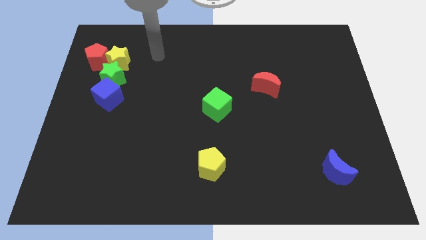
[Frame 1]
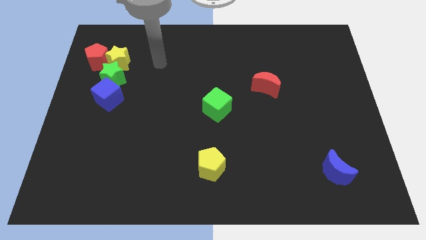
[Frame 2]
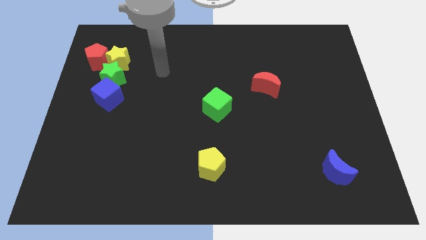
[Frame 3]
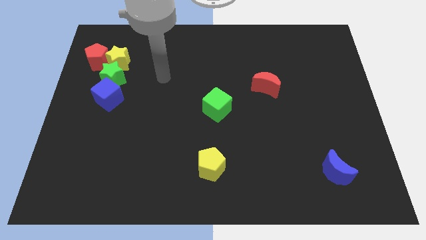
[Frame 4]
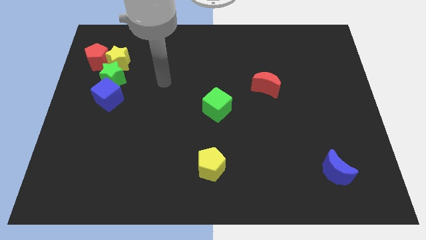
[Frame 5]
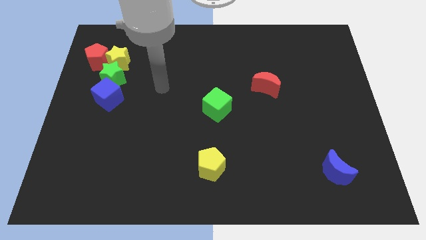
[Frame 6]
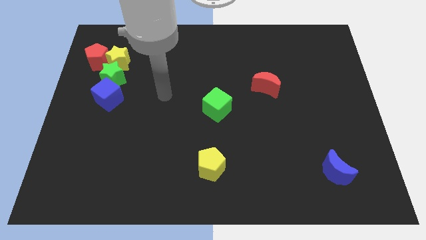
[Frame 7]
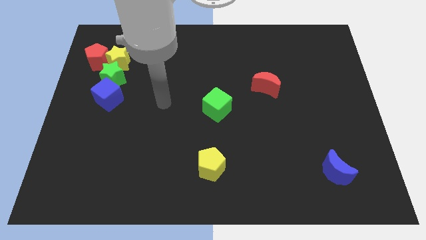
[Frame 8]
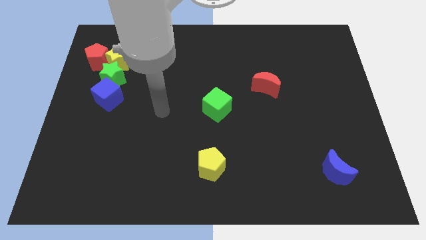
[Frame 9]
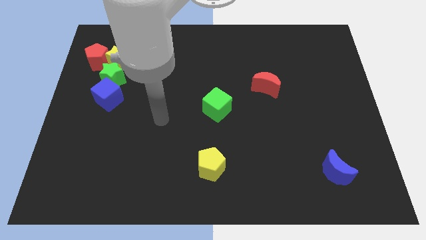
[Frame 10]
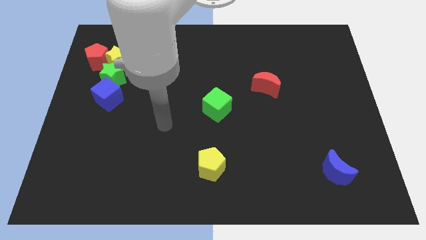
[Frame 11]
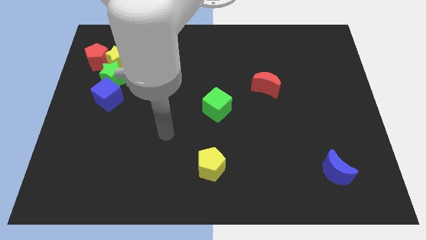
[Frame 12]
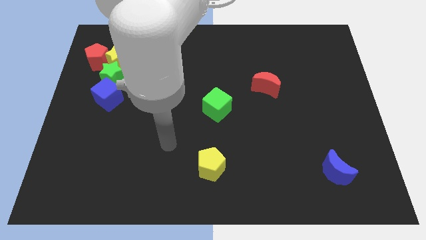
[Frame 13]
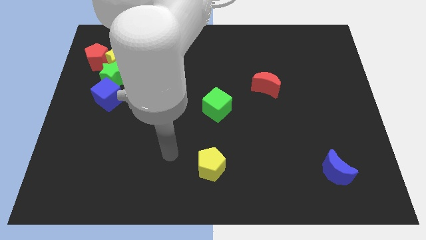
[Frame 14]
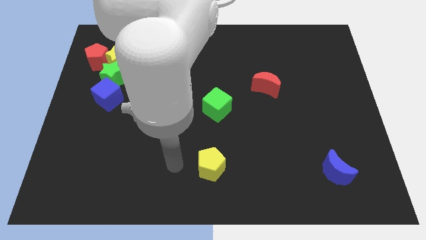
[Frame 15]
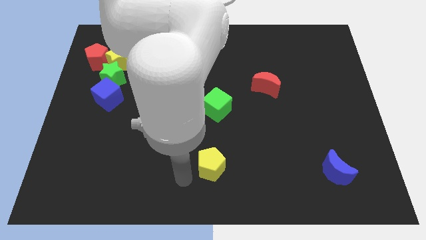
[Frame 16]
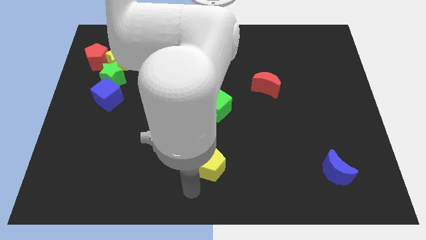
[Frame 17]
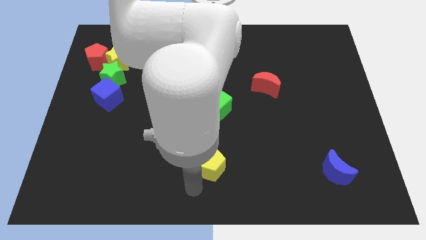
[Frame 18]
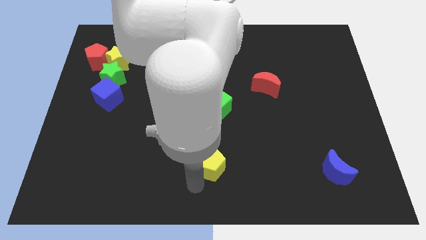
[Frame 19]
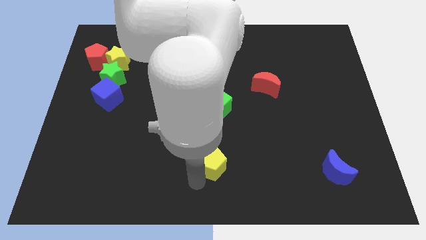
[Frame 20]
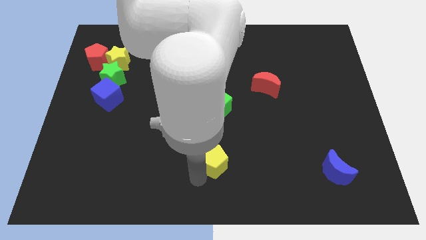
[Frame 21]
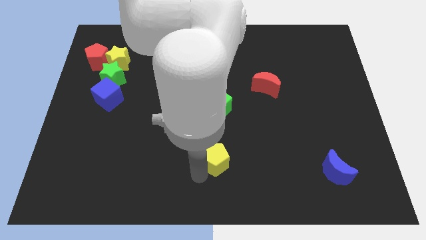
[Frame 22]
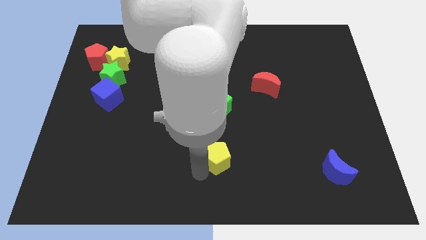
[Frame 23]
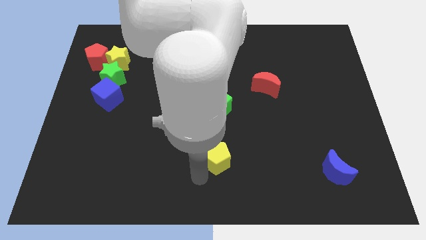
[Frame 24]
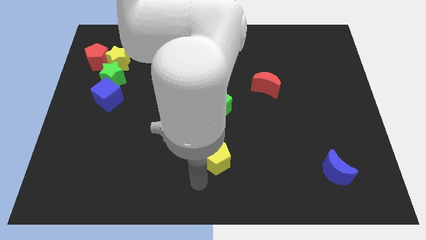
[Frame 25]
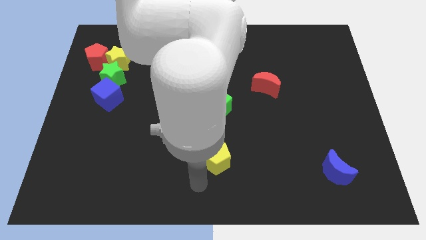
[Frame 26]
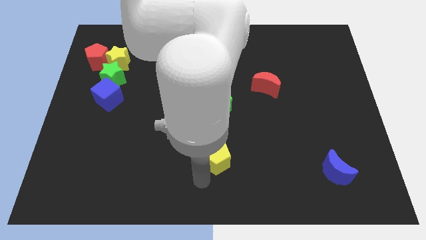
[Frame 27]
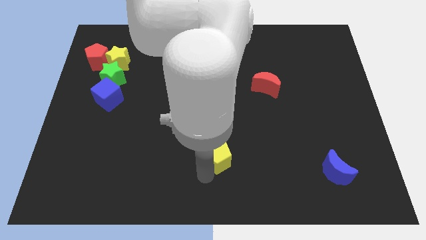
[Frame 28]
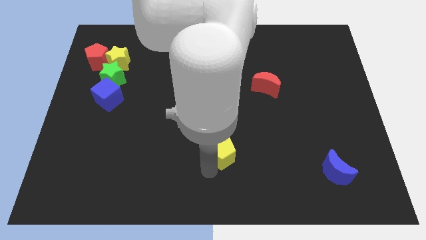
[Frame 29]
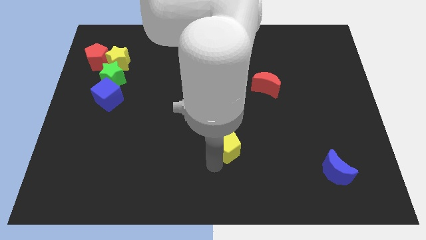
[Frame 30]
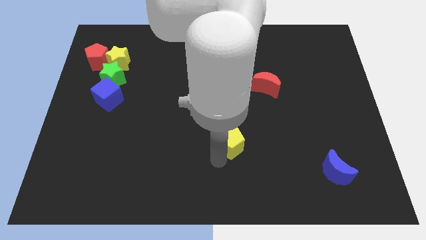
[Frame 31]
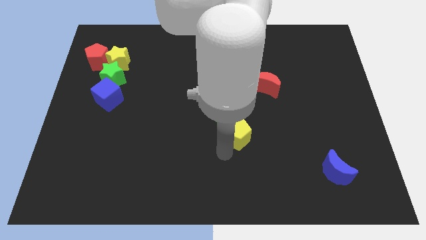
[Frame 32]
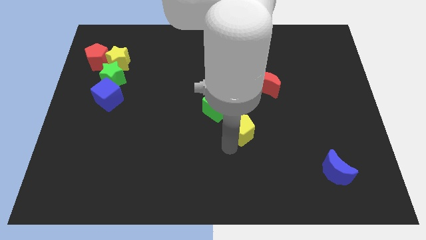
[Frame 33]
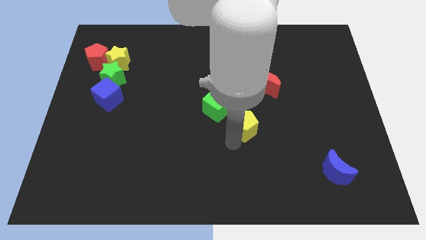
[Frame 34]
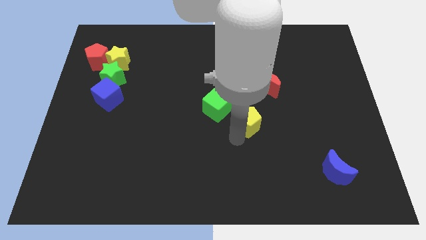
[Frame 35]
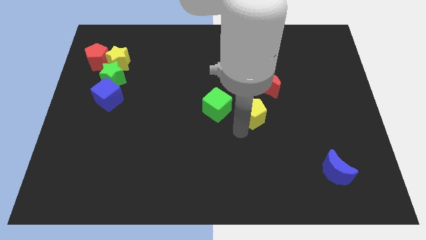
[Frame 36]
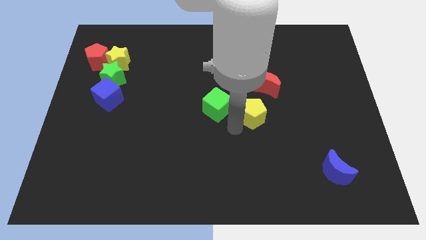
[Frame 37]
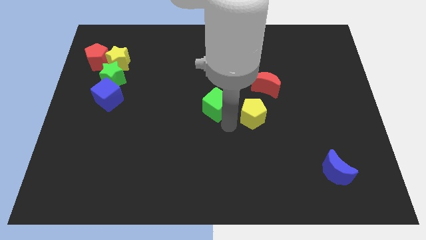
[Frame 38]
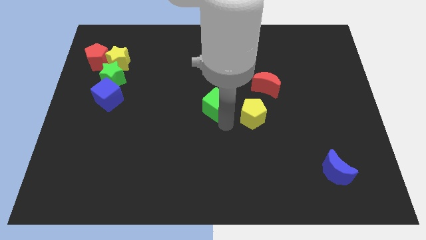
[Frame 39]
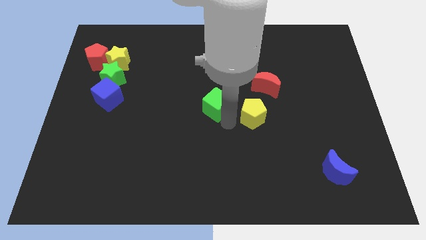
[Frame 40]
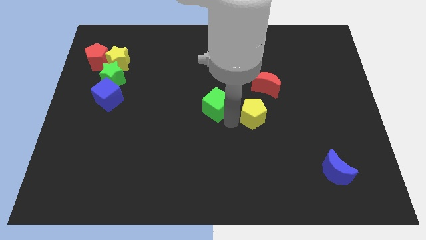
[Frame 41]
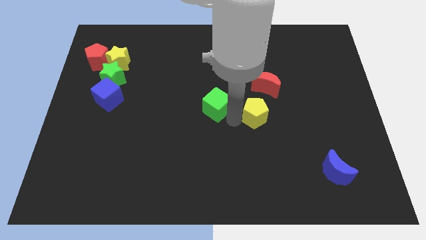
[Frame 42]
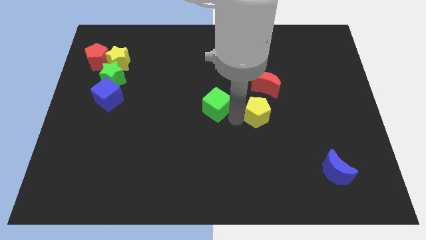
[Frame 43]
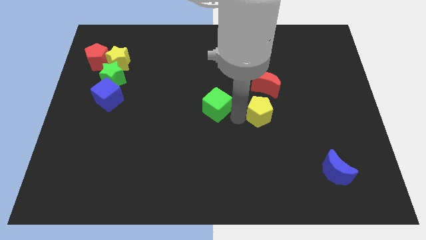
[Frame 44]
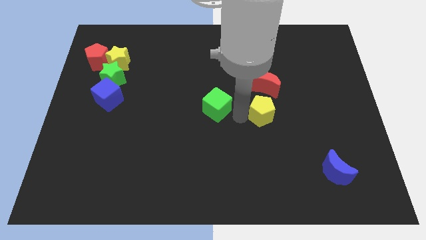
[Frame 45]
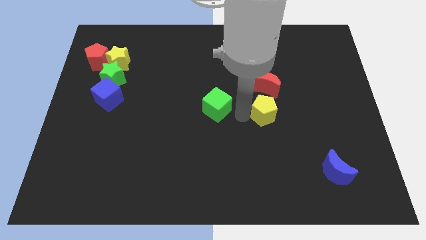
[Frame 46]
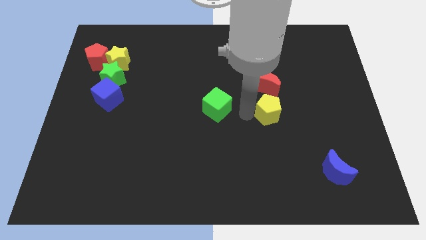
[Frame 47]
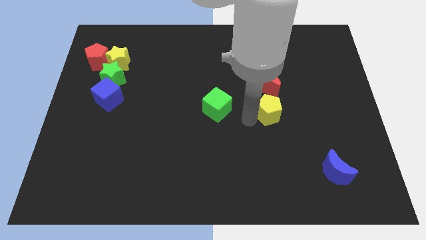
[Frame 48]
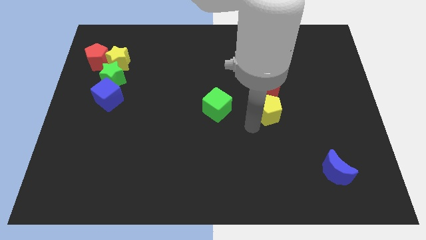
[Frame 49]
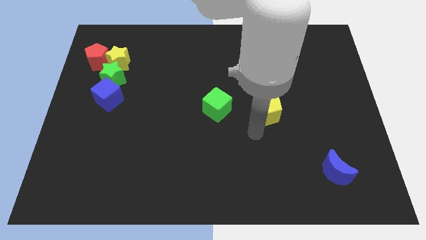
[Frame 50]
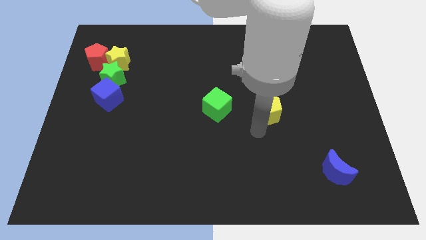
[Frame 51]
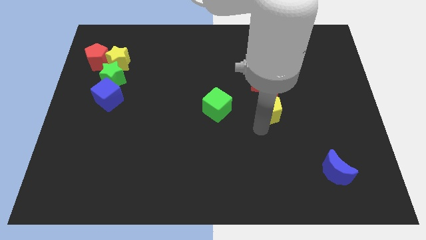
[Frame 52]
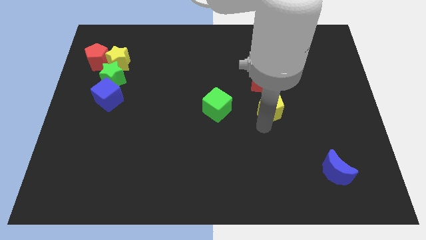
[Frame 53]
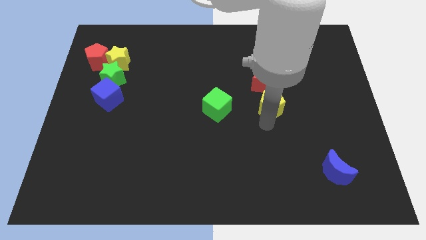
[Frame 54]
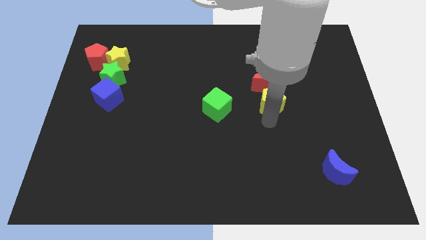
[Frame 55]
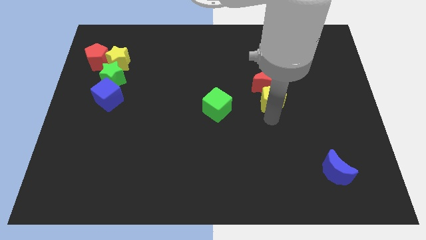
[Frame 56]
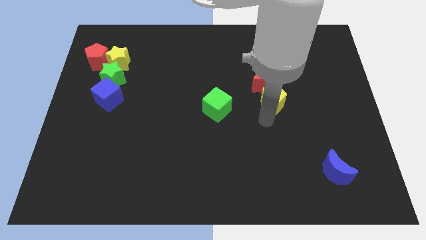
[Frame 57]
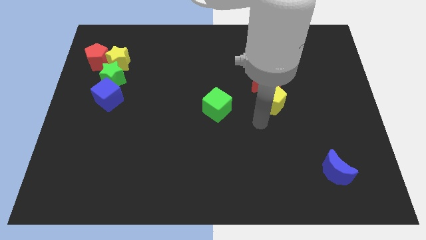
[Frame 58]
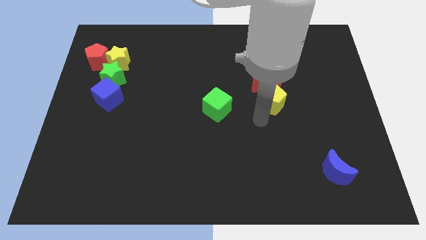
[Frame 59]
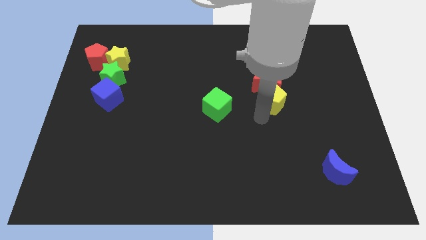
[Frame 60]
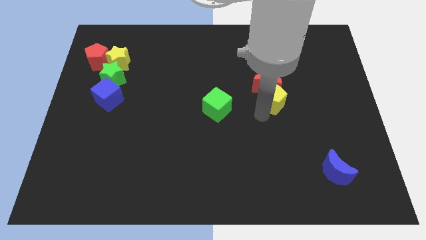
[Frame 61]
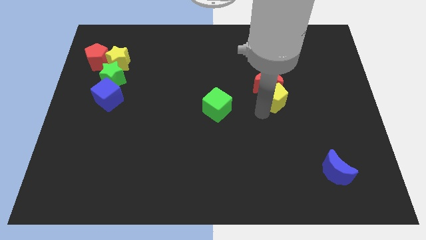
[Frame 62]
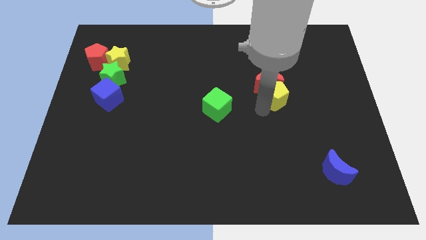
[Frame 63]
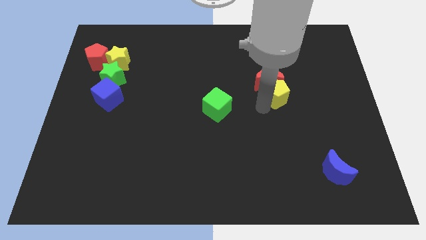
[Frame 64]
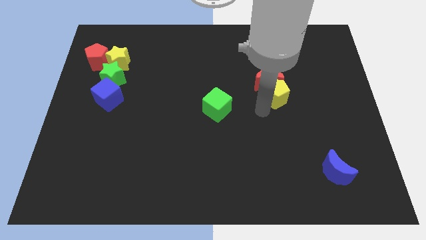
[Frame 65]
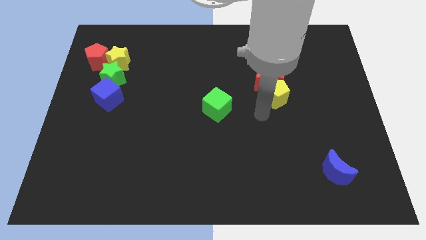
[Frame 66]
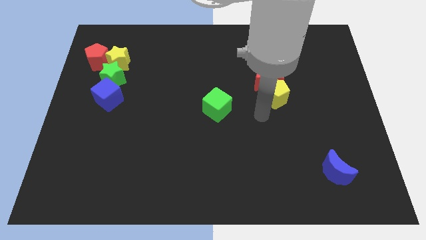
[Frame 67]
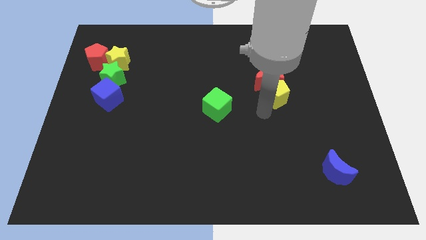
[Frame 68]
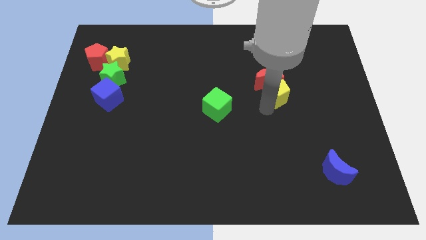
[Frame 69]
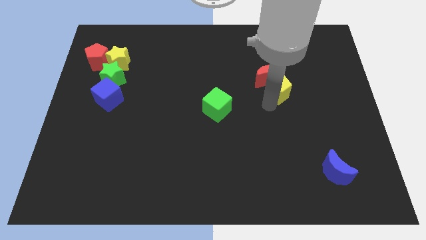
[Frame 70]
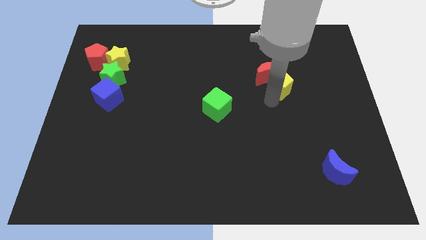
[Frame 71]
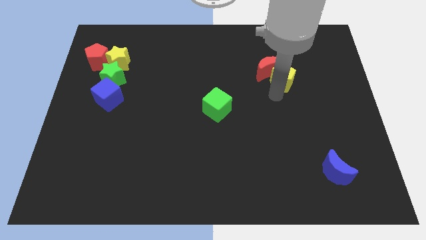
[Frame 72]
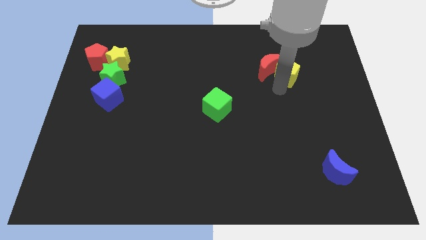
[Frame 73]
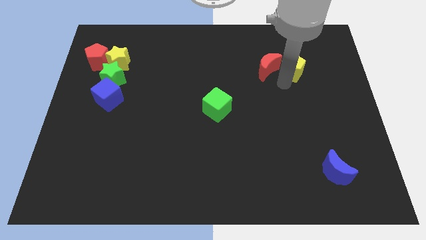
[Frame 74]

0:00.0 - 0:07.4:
push the yellow pentagon to the top right side of the red moon

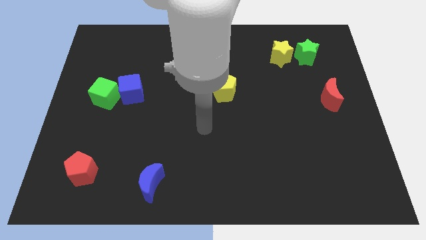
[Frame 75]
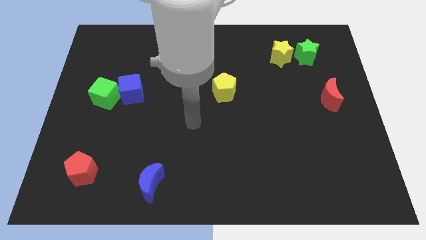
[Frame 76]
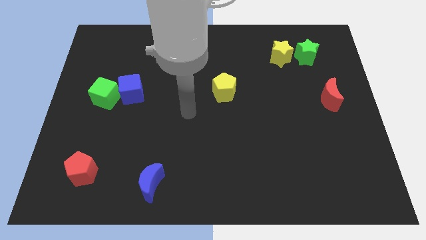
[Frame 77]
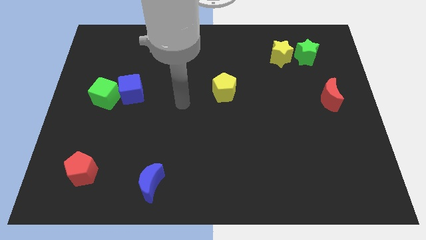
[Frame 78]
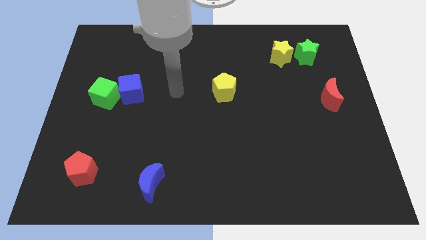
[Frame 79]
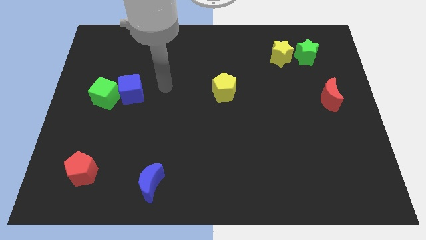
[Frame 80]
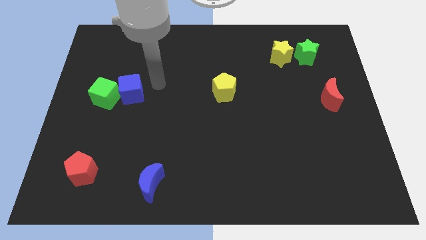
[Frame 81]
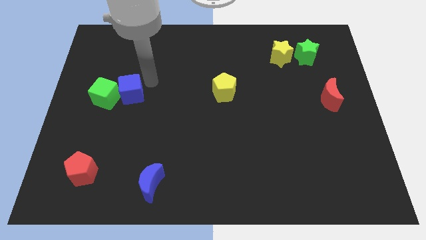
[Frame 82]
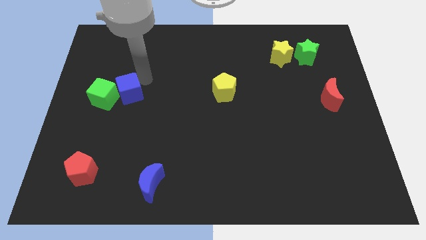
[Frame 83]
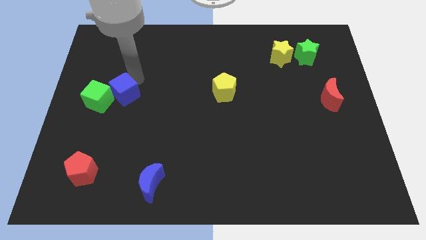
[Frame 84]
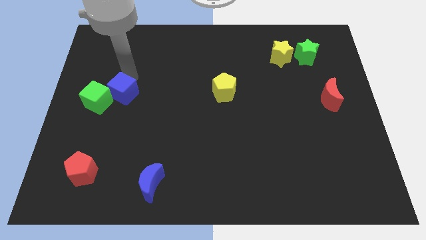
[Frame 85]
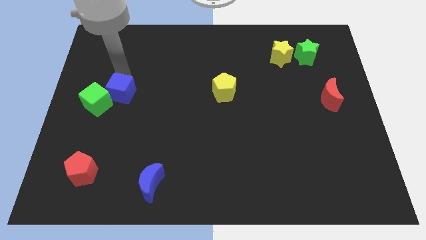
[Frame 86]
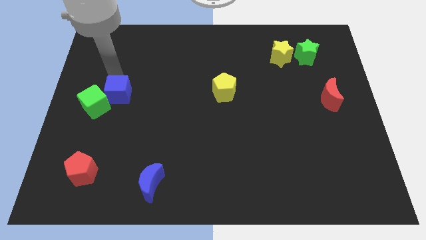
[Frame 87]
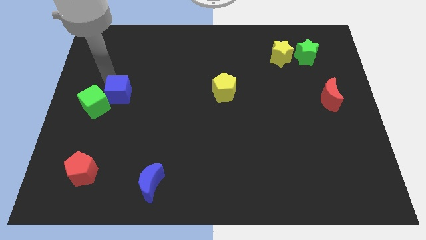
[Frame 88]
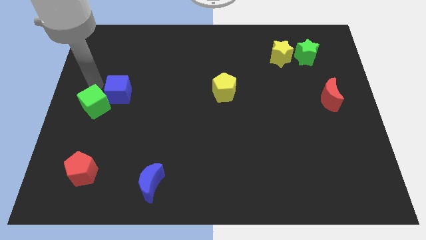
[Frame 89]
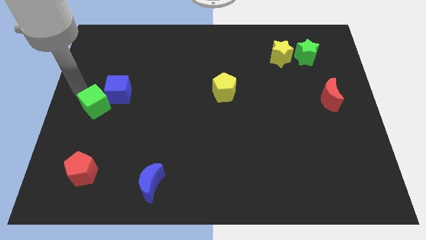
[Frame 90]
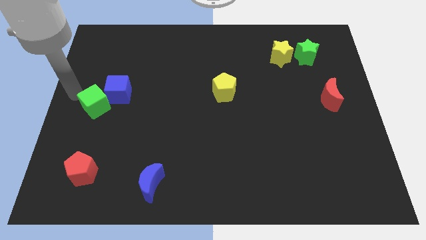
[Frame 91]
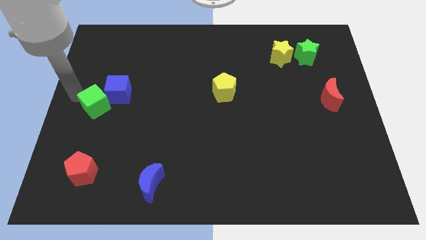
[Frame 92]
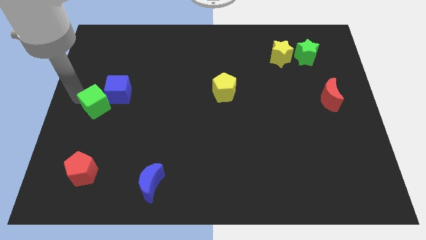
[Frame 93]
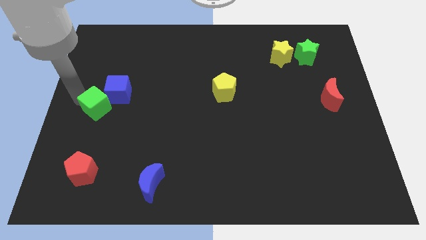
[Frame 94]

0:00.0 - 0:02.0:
push the green cube to the bottom of the blue cube
